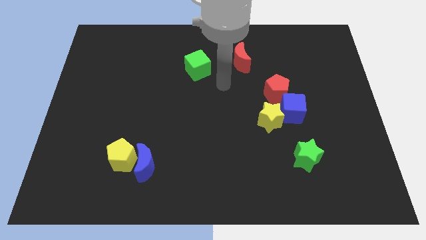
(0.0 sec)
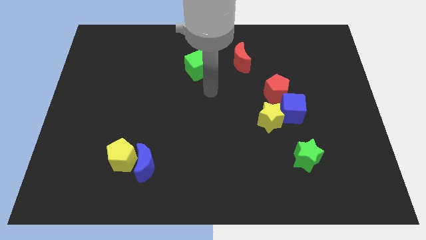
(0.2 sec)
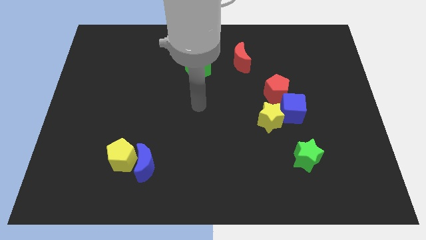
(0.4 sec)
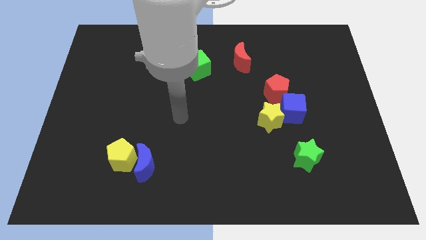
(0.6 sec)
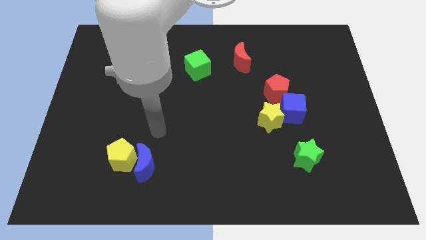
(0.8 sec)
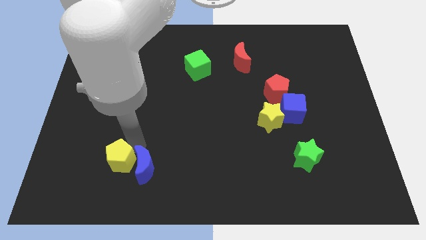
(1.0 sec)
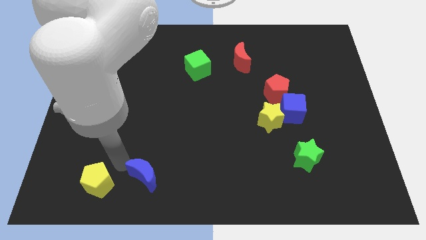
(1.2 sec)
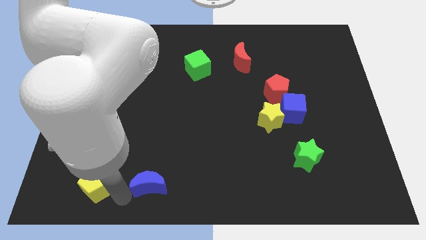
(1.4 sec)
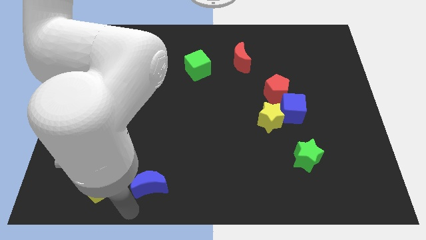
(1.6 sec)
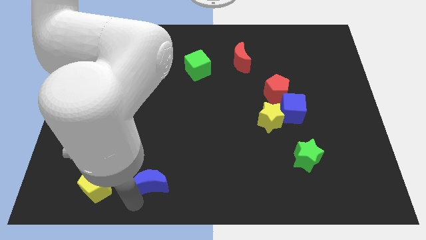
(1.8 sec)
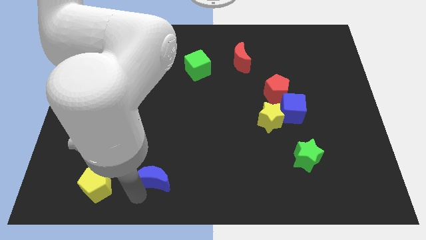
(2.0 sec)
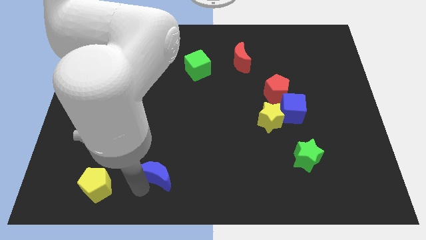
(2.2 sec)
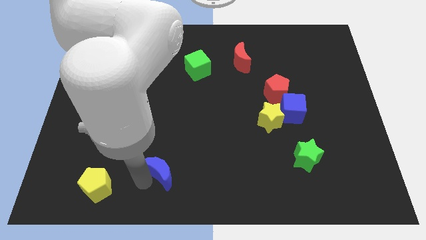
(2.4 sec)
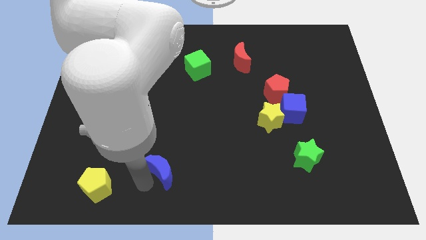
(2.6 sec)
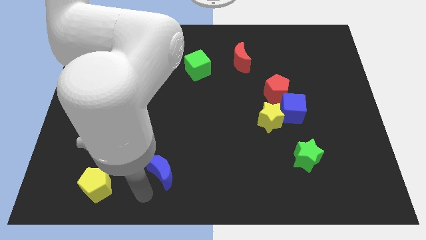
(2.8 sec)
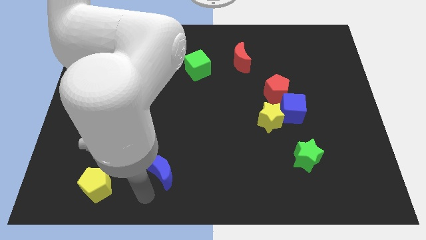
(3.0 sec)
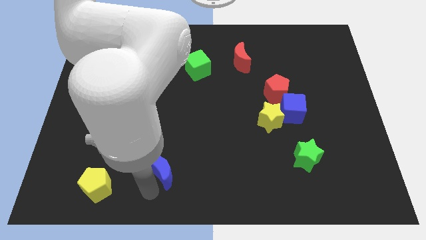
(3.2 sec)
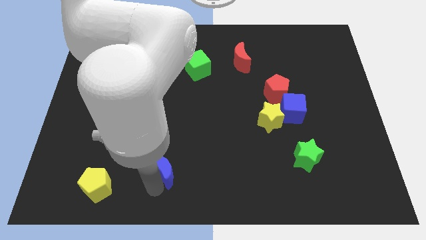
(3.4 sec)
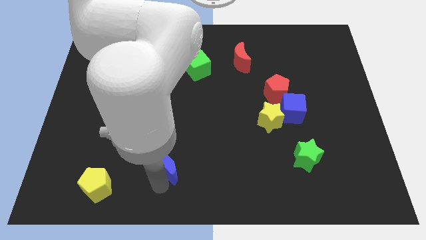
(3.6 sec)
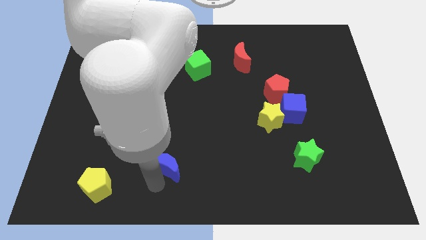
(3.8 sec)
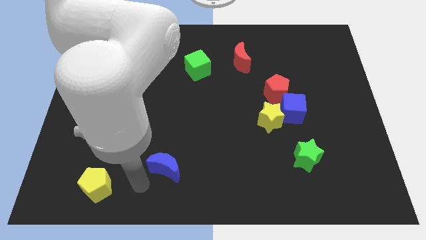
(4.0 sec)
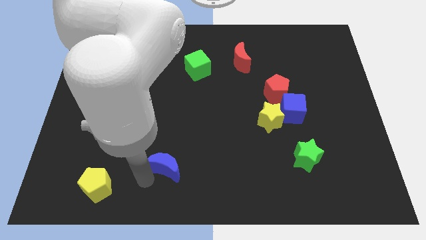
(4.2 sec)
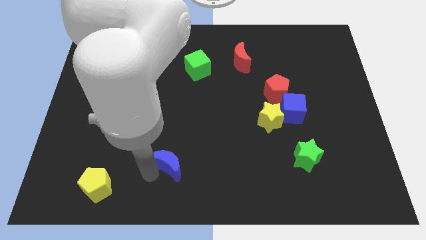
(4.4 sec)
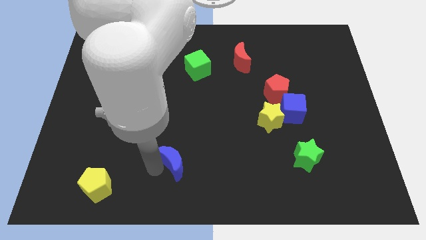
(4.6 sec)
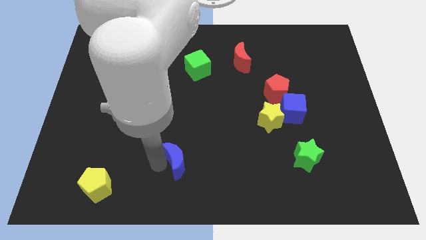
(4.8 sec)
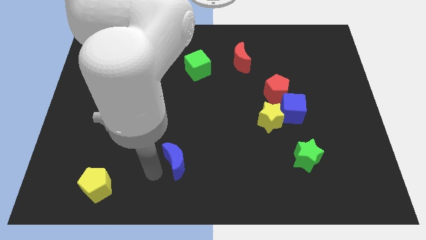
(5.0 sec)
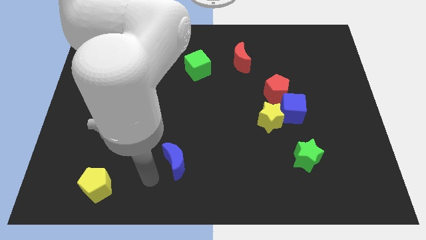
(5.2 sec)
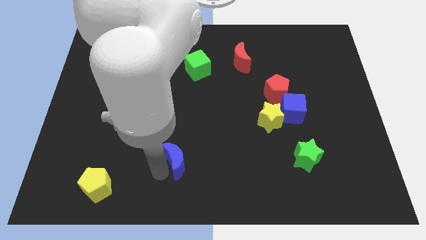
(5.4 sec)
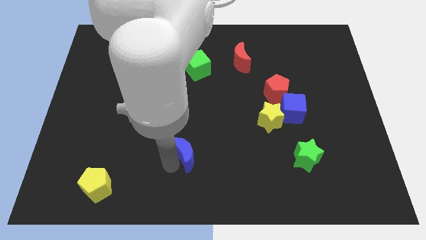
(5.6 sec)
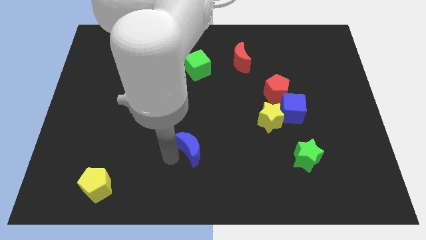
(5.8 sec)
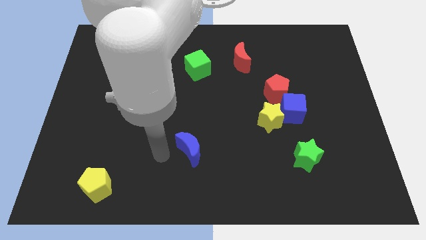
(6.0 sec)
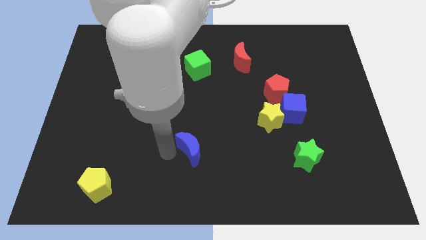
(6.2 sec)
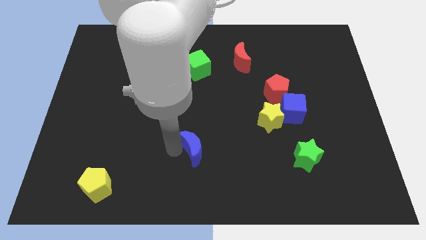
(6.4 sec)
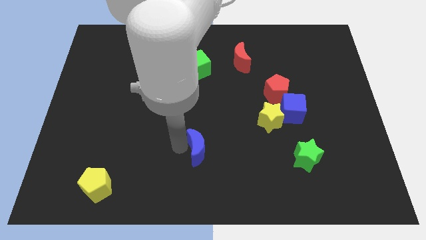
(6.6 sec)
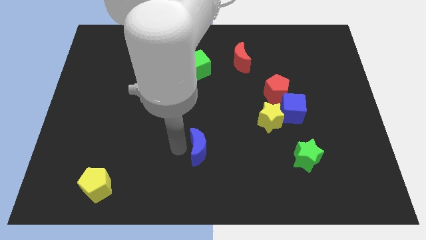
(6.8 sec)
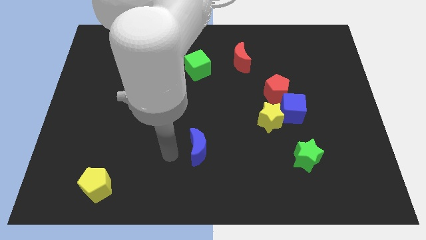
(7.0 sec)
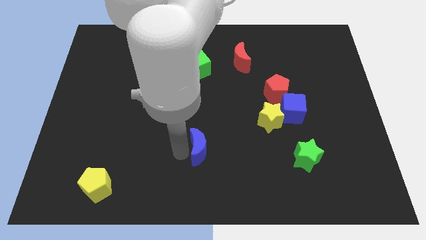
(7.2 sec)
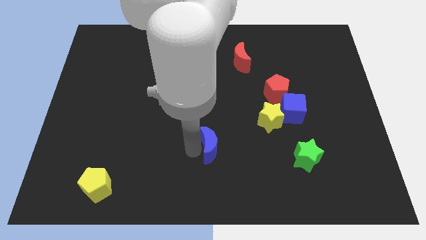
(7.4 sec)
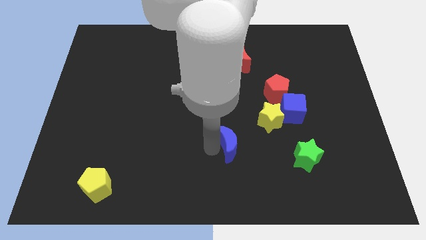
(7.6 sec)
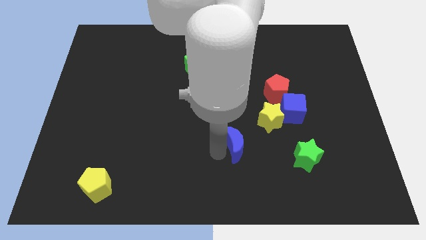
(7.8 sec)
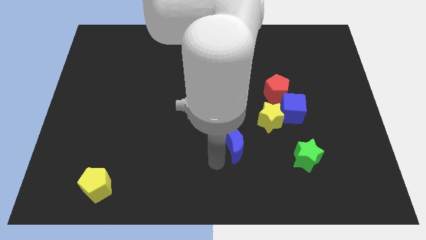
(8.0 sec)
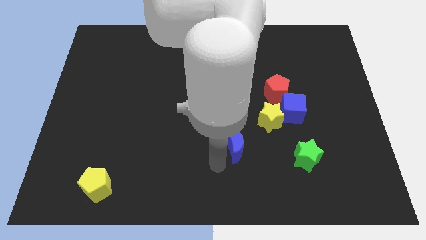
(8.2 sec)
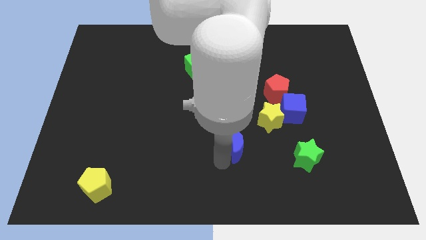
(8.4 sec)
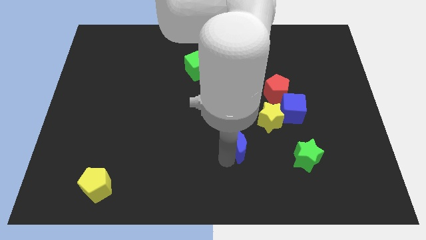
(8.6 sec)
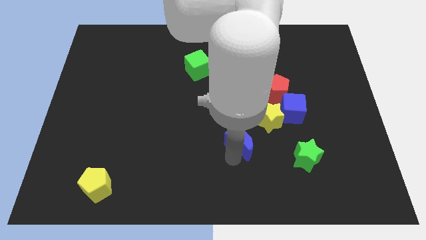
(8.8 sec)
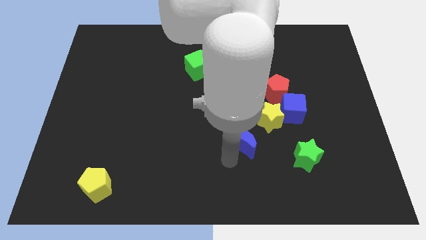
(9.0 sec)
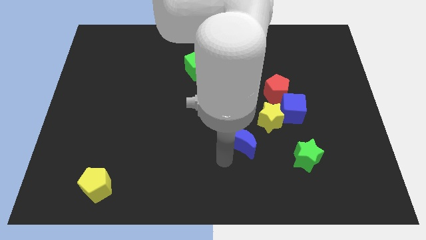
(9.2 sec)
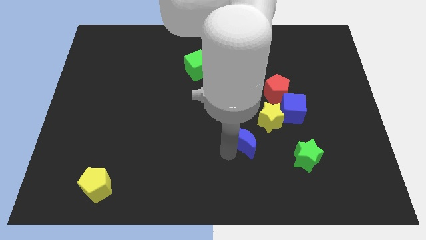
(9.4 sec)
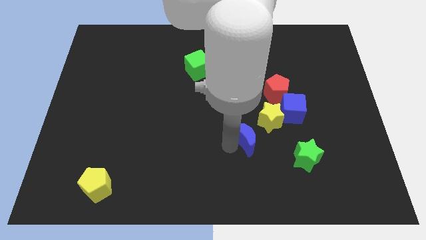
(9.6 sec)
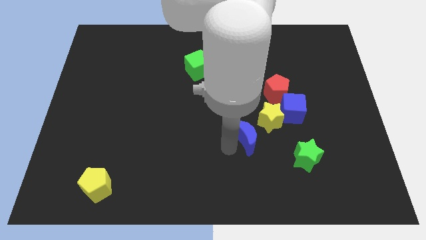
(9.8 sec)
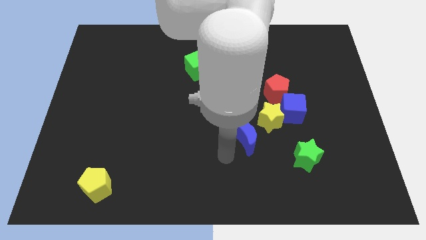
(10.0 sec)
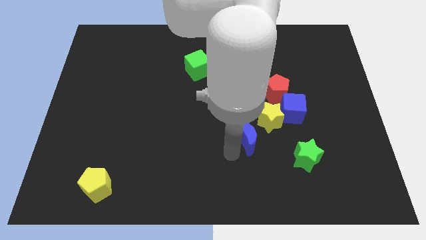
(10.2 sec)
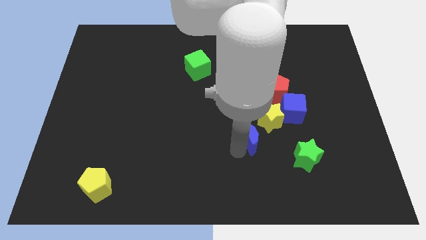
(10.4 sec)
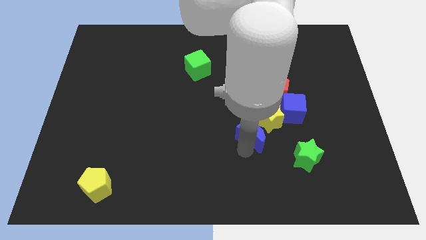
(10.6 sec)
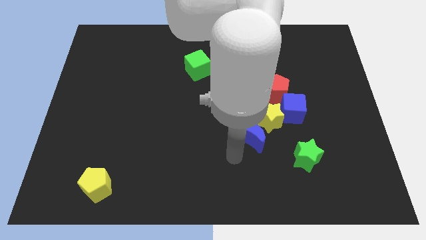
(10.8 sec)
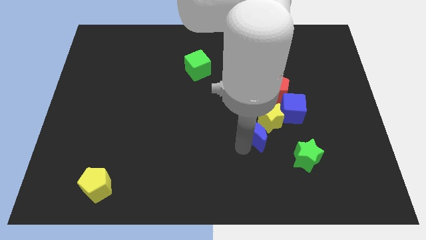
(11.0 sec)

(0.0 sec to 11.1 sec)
move the blue moon towards the yellow star

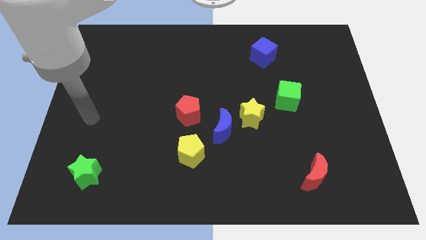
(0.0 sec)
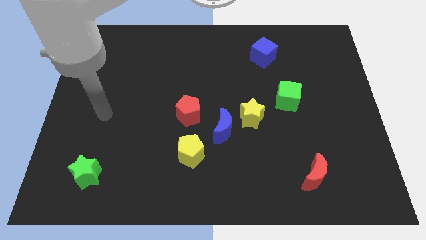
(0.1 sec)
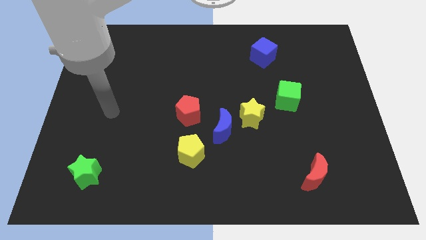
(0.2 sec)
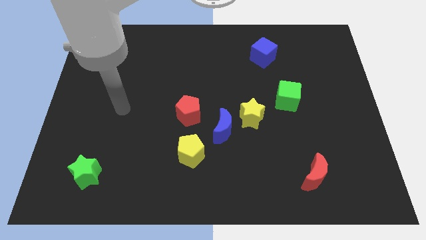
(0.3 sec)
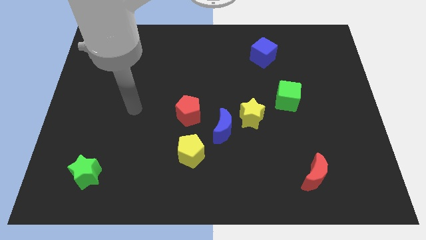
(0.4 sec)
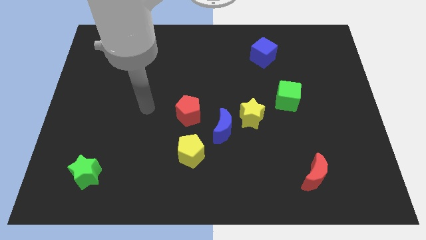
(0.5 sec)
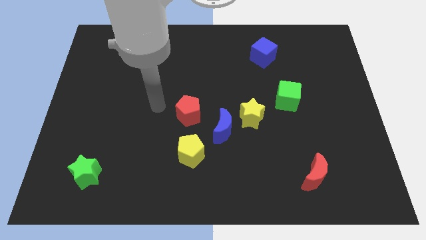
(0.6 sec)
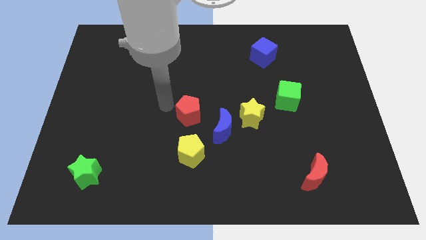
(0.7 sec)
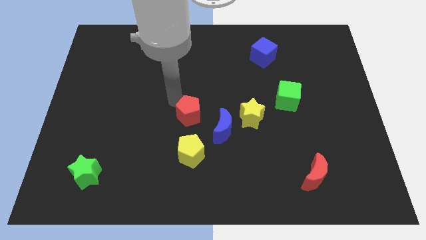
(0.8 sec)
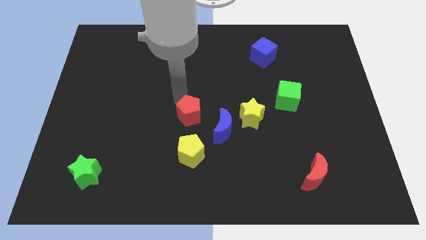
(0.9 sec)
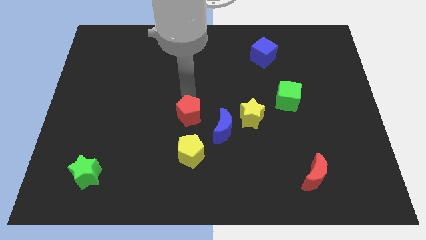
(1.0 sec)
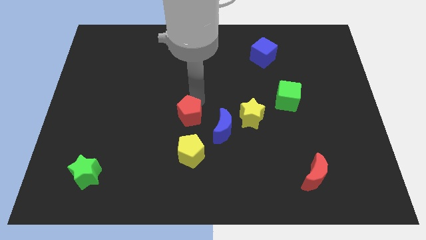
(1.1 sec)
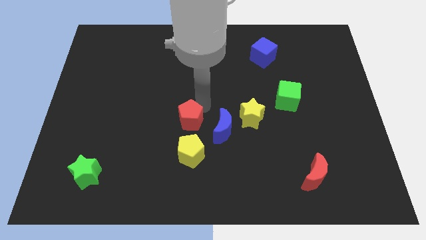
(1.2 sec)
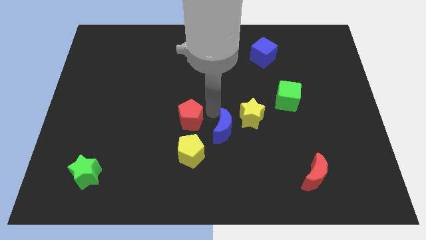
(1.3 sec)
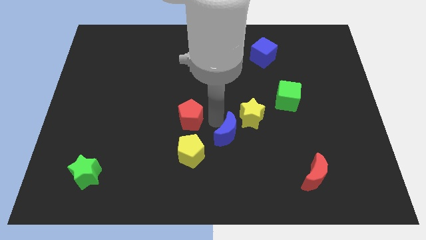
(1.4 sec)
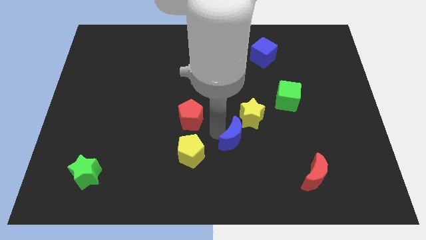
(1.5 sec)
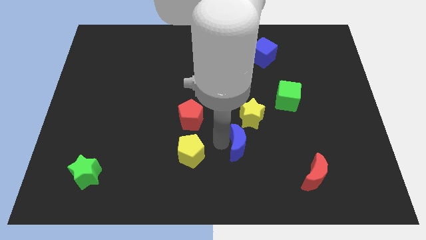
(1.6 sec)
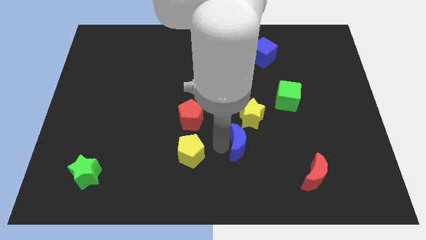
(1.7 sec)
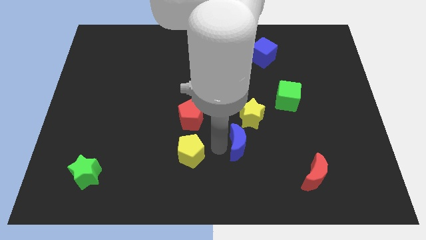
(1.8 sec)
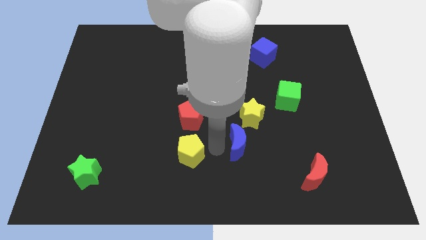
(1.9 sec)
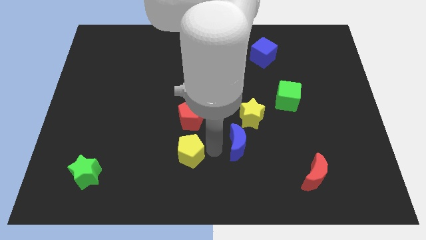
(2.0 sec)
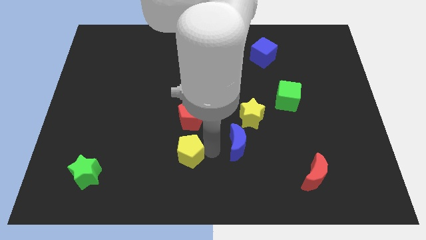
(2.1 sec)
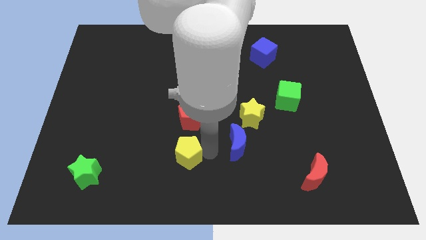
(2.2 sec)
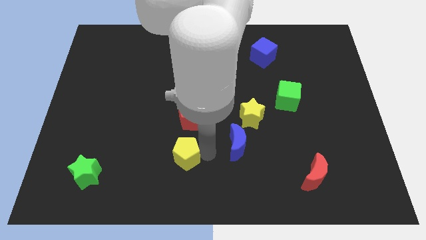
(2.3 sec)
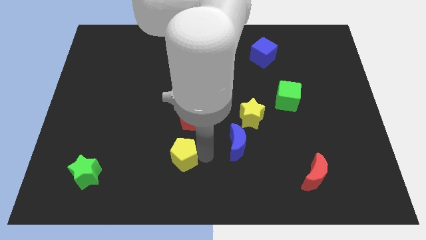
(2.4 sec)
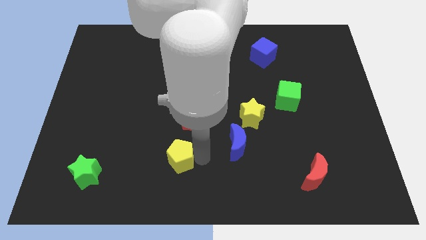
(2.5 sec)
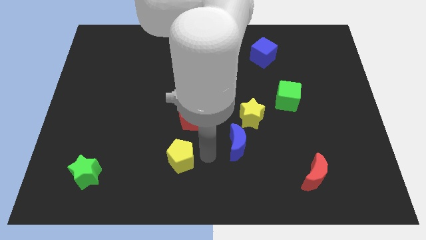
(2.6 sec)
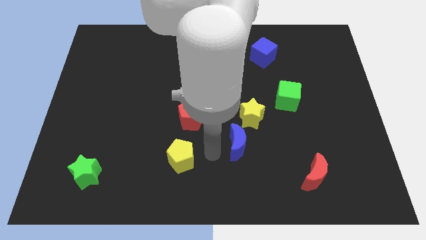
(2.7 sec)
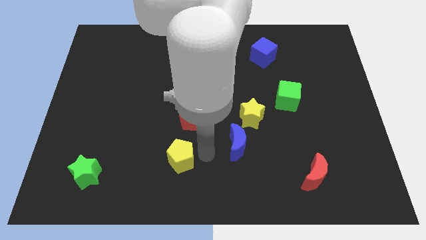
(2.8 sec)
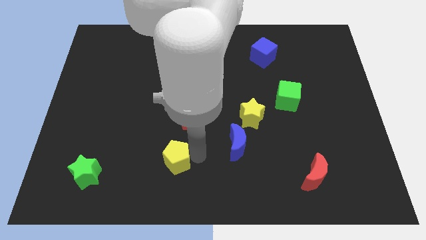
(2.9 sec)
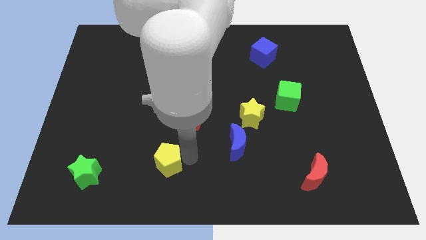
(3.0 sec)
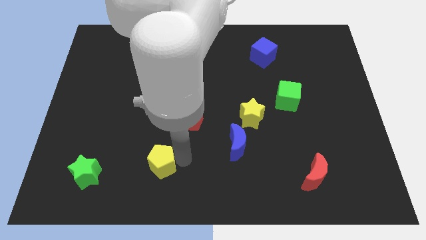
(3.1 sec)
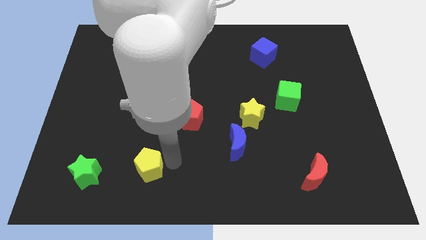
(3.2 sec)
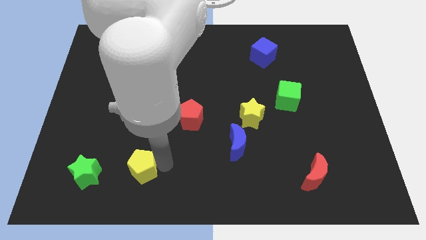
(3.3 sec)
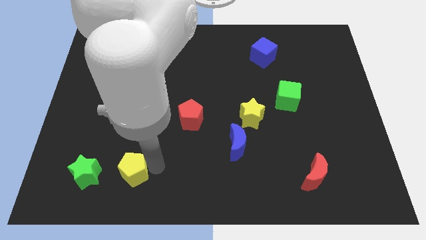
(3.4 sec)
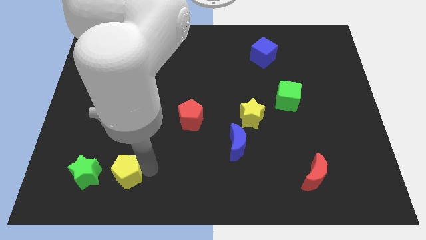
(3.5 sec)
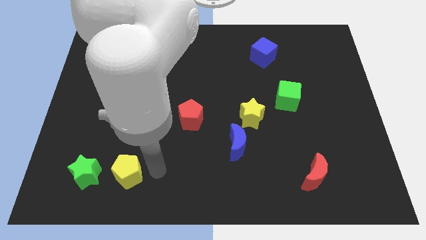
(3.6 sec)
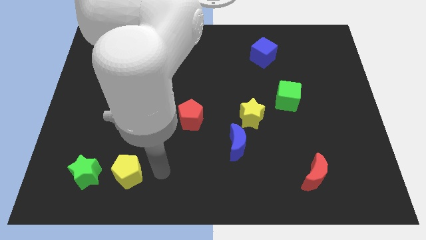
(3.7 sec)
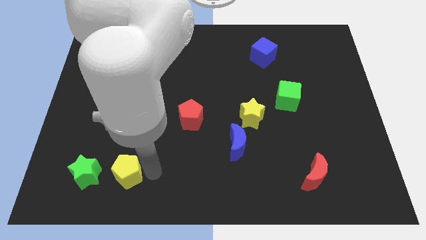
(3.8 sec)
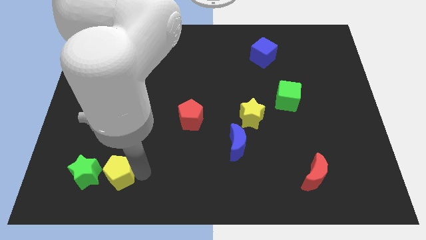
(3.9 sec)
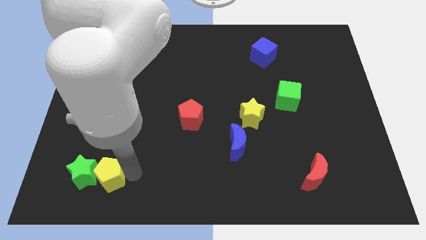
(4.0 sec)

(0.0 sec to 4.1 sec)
move the yellow pentagon to the green star
